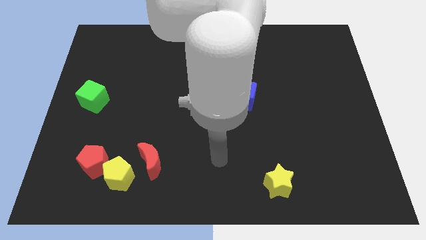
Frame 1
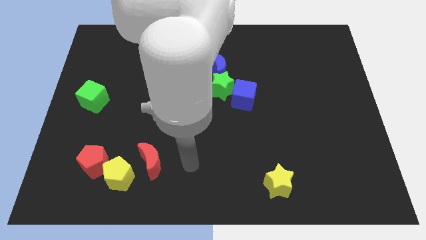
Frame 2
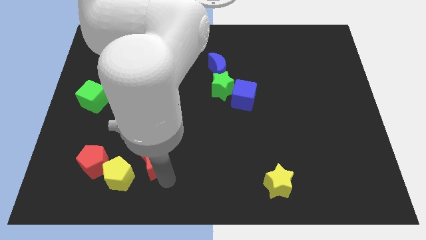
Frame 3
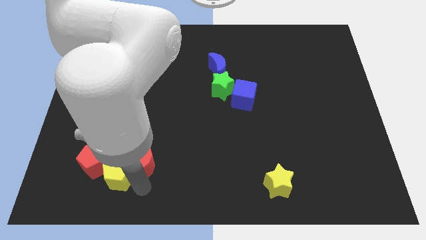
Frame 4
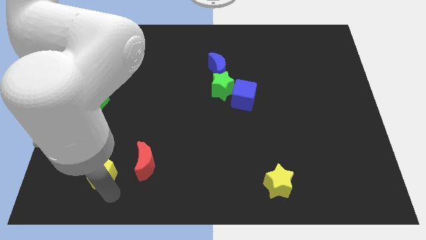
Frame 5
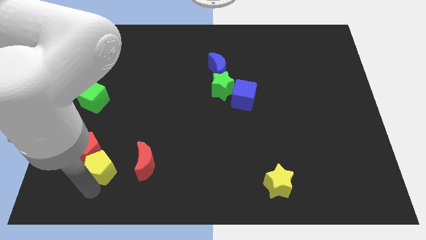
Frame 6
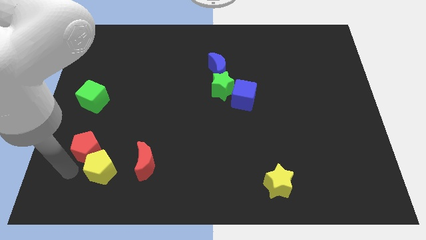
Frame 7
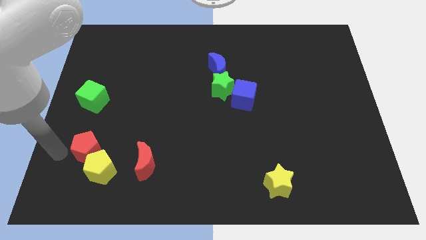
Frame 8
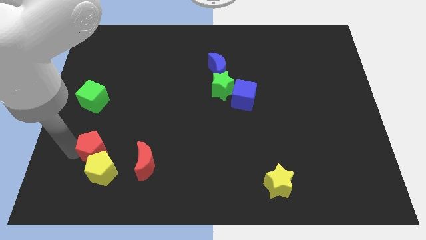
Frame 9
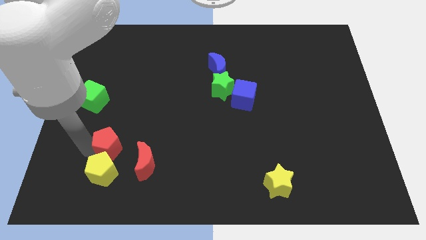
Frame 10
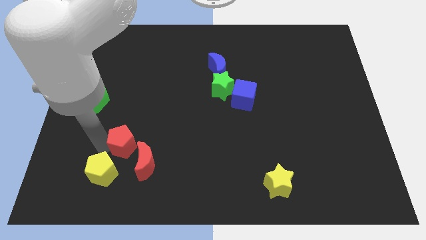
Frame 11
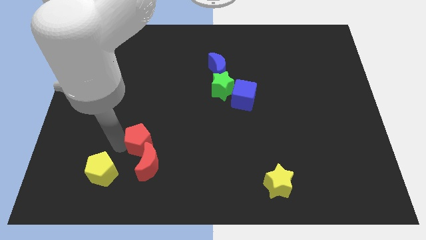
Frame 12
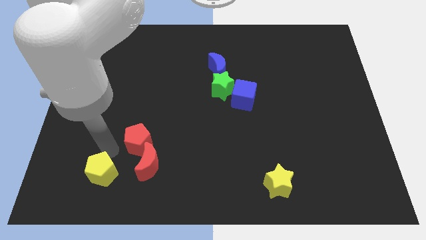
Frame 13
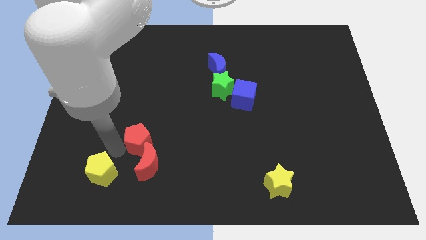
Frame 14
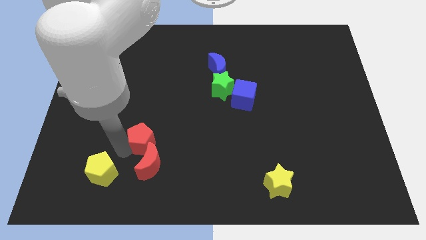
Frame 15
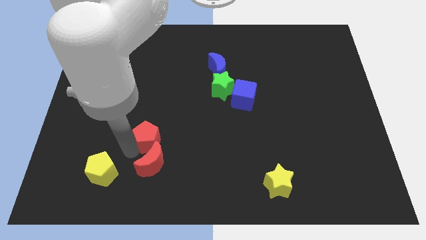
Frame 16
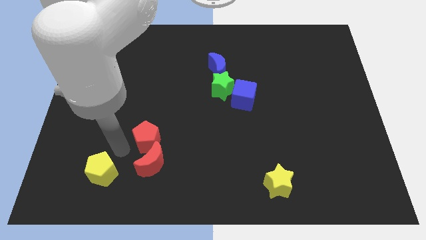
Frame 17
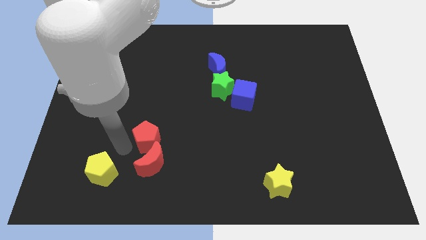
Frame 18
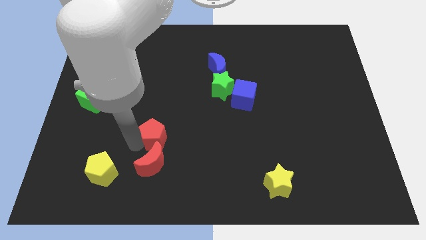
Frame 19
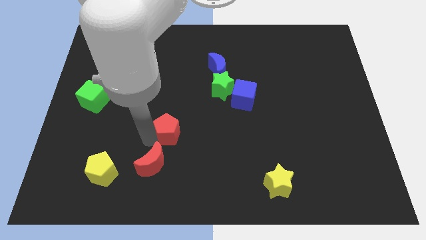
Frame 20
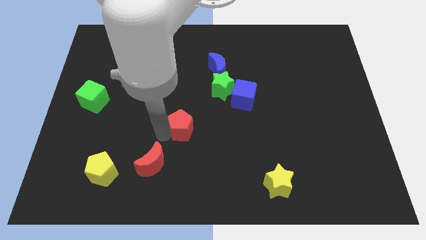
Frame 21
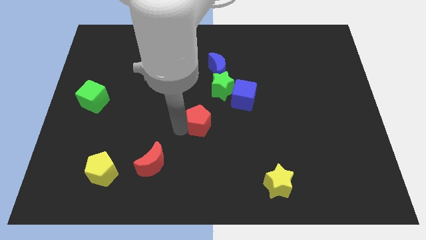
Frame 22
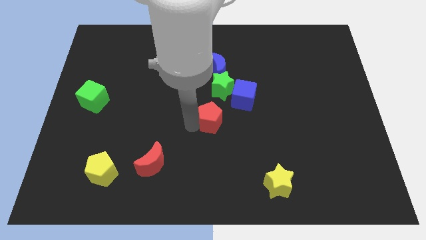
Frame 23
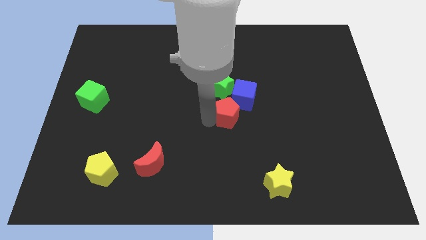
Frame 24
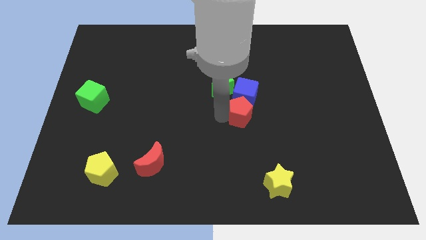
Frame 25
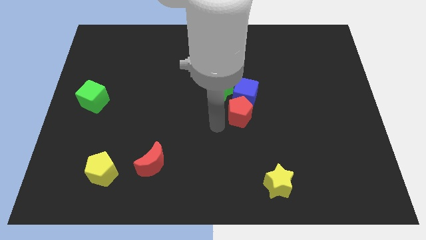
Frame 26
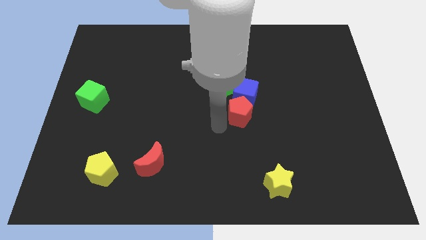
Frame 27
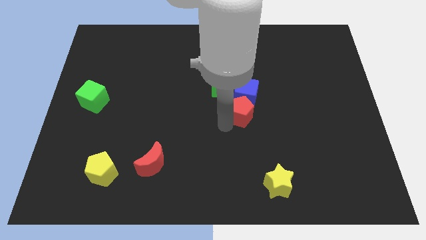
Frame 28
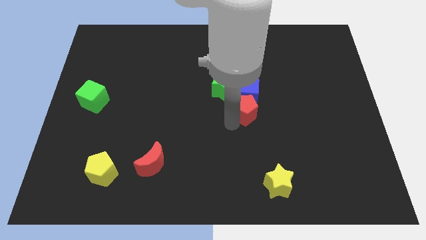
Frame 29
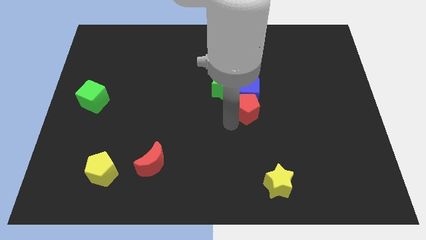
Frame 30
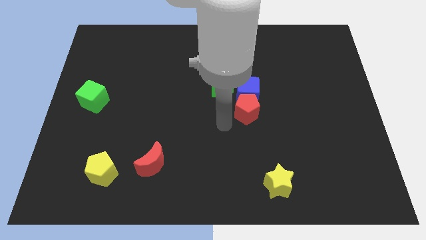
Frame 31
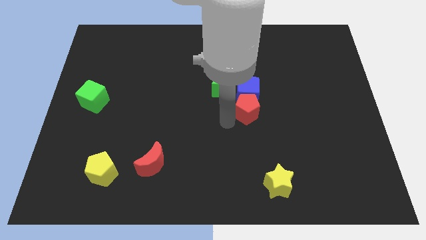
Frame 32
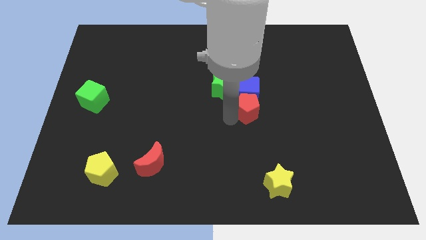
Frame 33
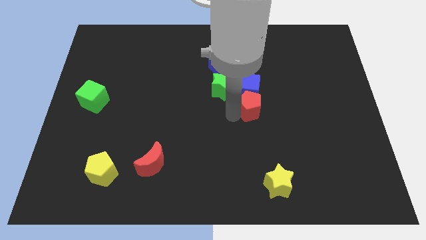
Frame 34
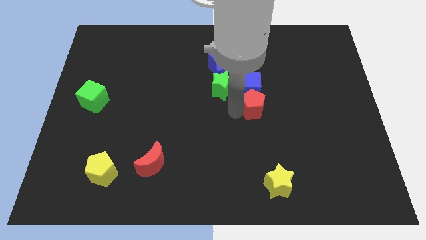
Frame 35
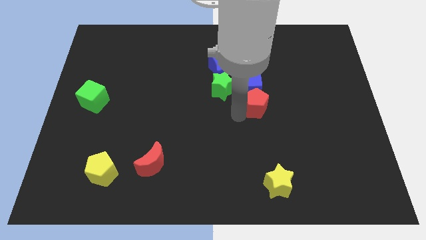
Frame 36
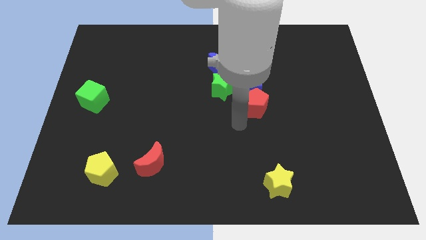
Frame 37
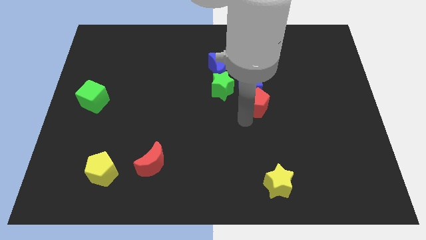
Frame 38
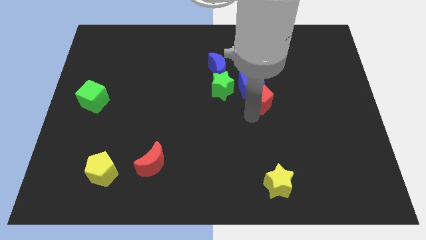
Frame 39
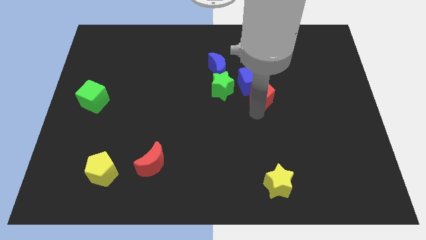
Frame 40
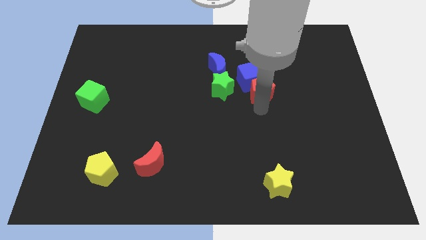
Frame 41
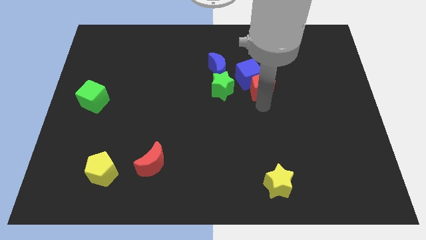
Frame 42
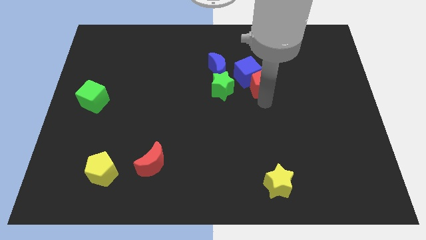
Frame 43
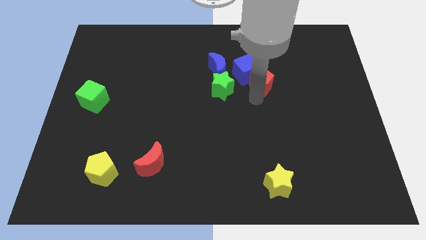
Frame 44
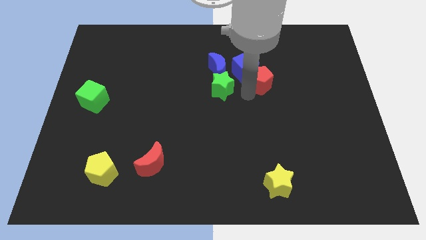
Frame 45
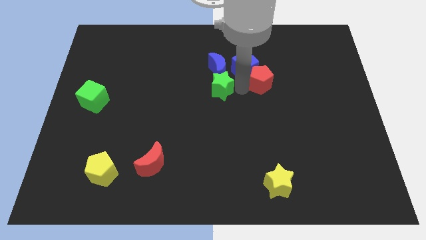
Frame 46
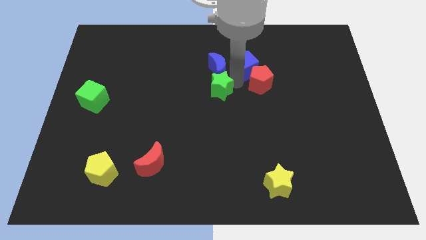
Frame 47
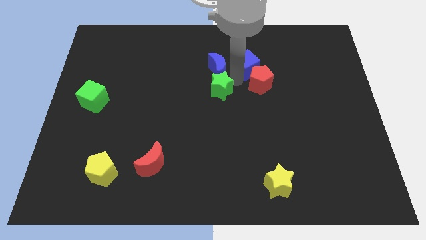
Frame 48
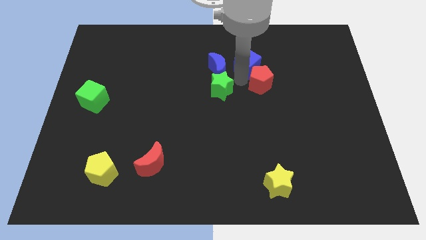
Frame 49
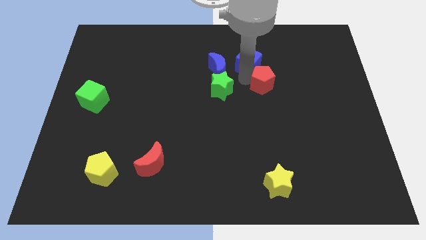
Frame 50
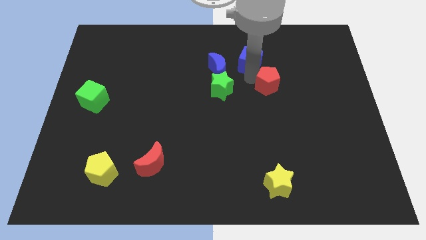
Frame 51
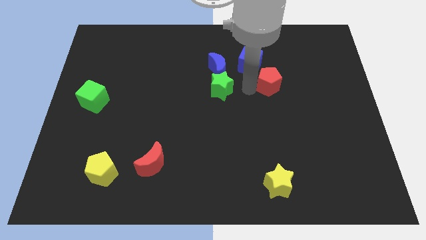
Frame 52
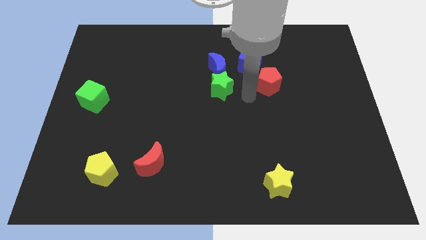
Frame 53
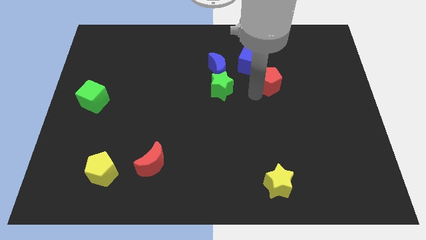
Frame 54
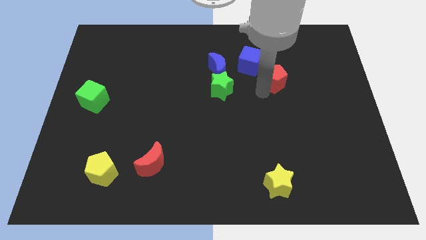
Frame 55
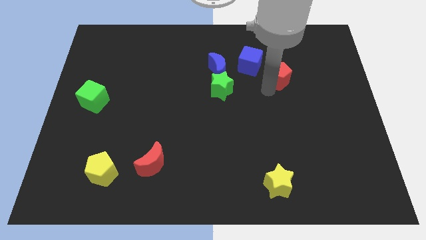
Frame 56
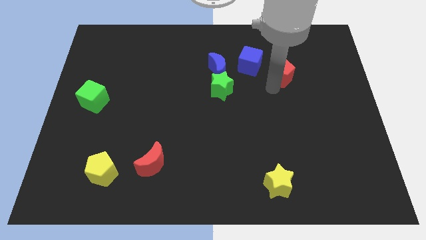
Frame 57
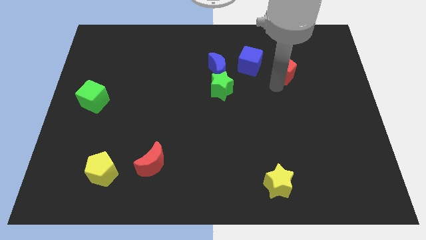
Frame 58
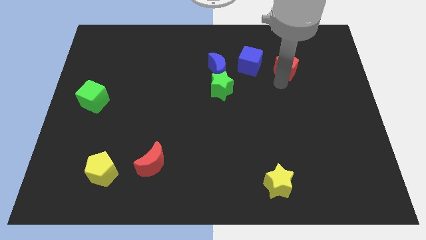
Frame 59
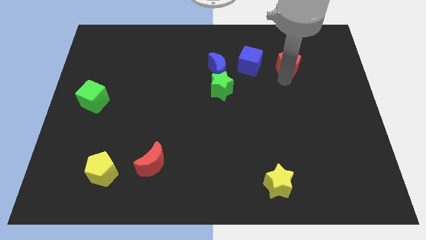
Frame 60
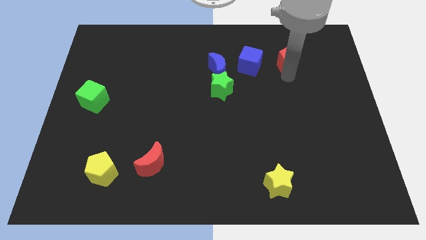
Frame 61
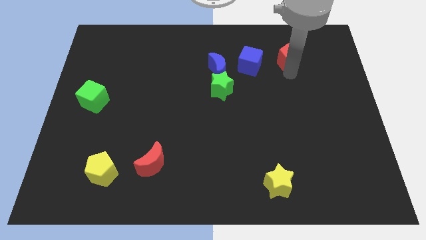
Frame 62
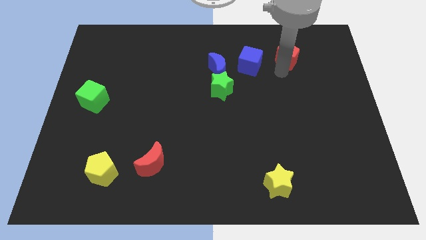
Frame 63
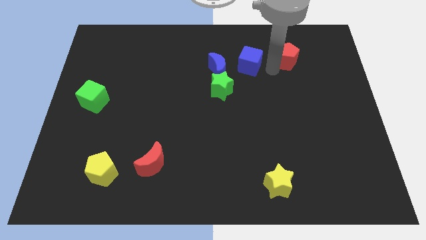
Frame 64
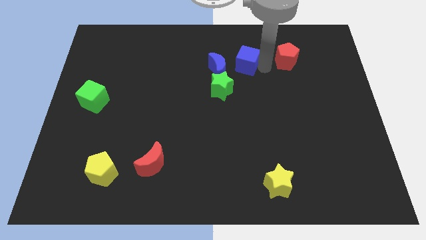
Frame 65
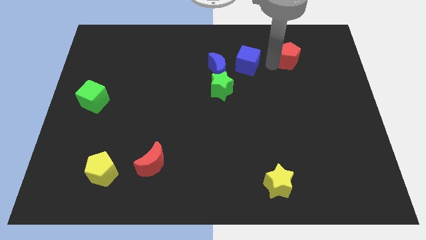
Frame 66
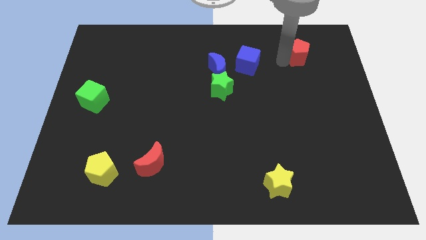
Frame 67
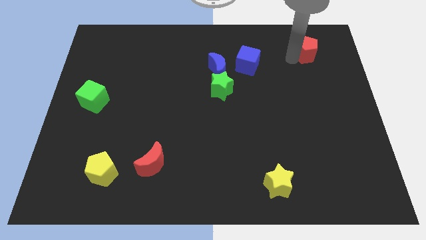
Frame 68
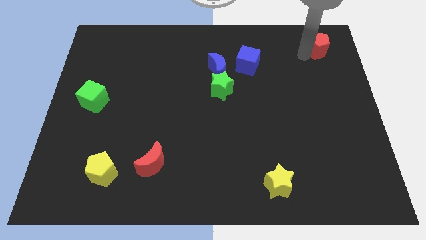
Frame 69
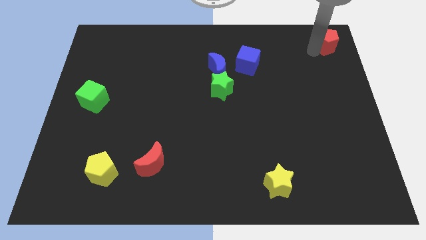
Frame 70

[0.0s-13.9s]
move the red pentagon to the upper right corner

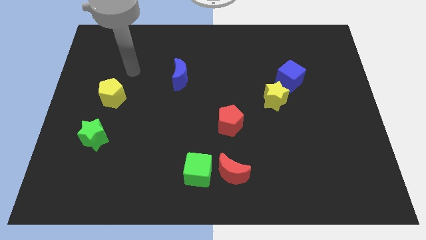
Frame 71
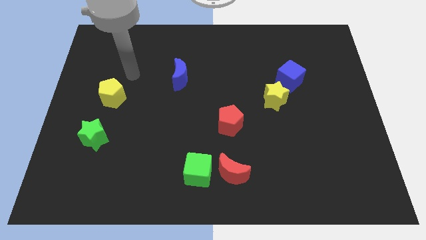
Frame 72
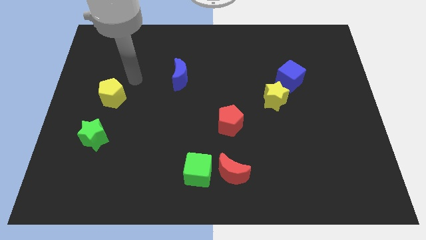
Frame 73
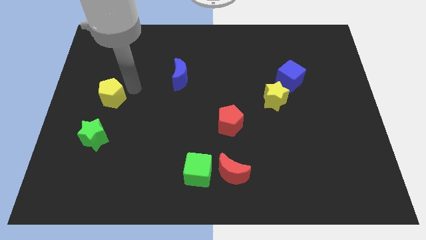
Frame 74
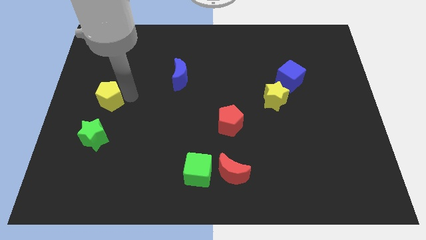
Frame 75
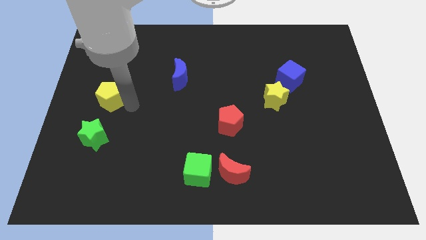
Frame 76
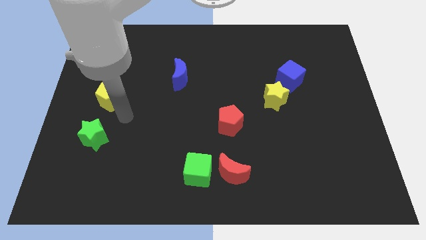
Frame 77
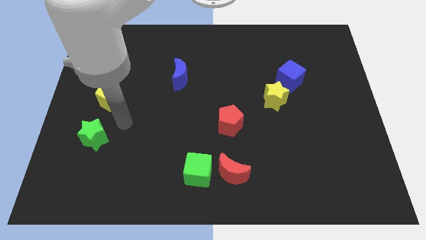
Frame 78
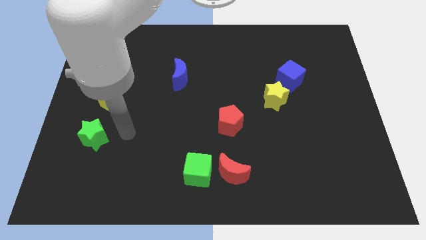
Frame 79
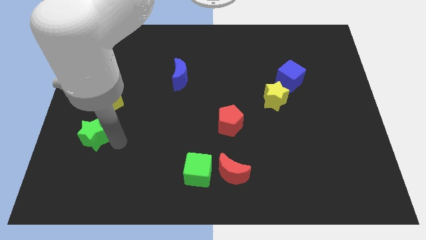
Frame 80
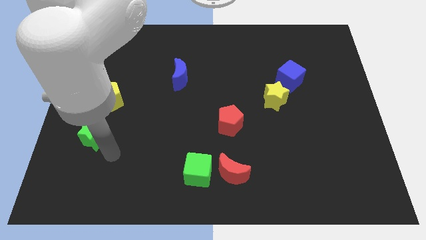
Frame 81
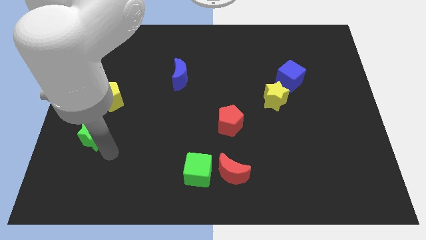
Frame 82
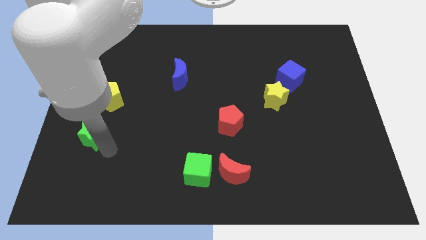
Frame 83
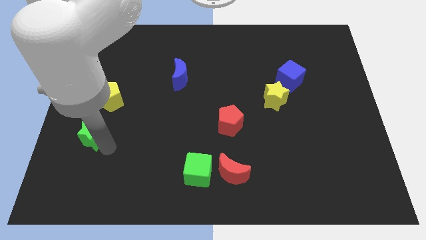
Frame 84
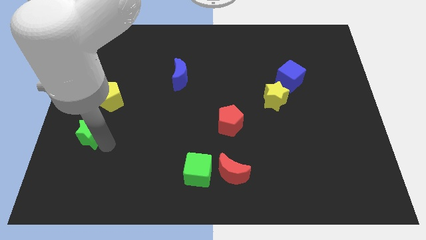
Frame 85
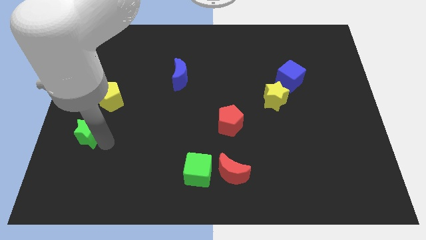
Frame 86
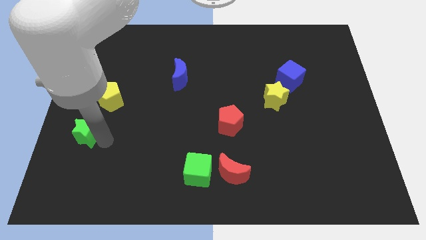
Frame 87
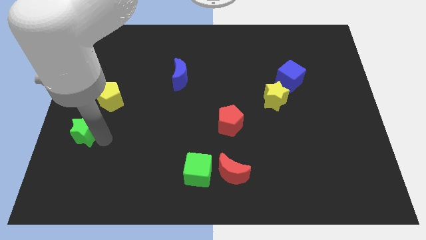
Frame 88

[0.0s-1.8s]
push the green star to the center left
